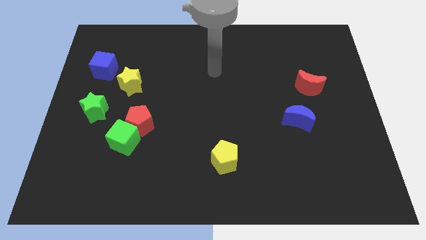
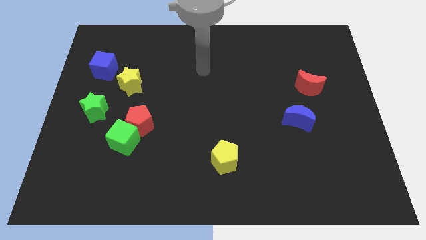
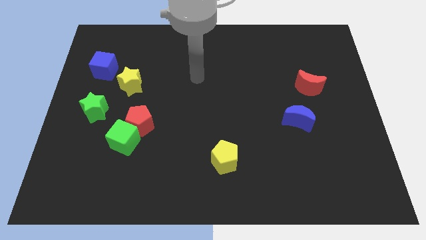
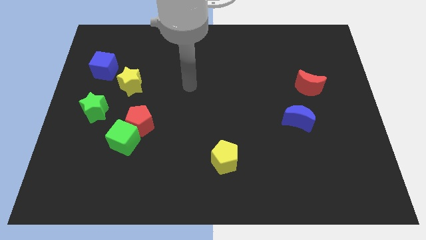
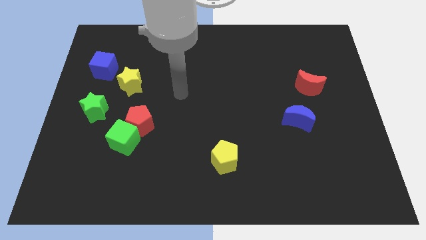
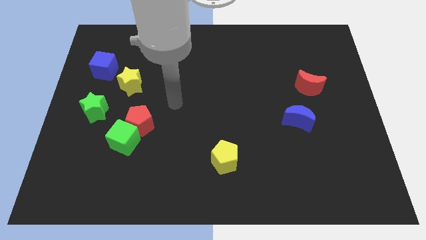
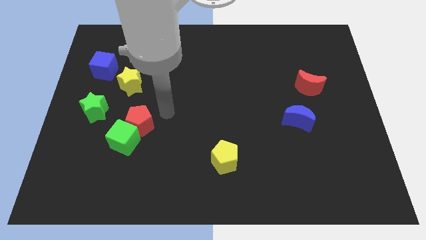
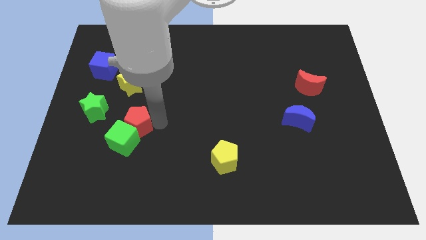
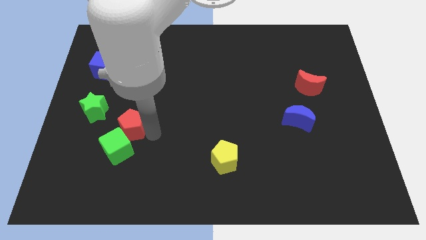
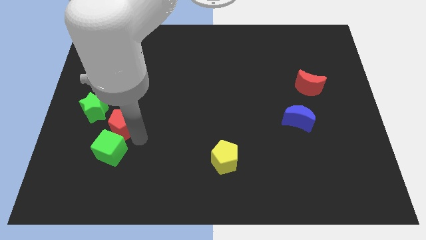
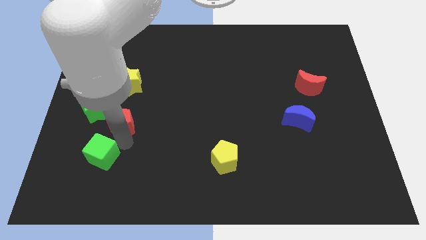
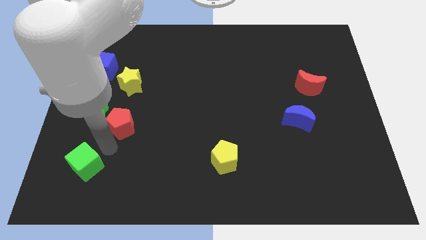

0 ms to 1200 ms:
pull the red pentagon apart from the green cube

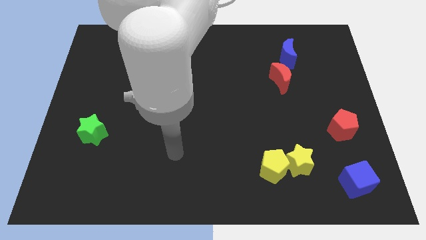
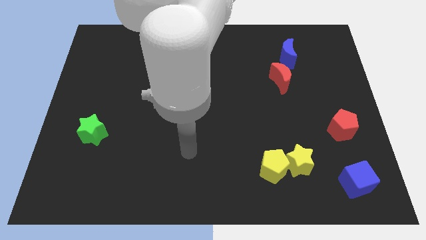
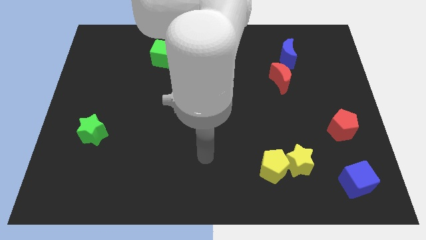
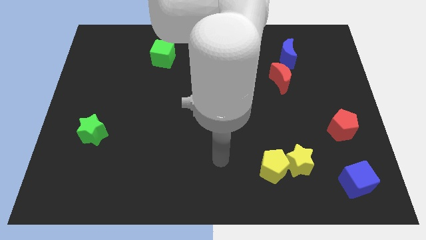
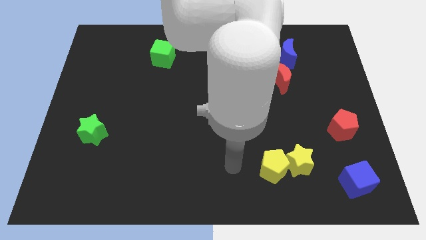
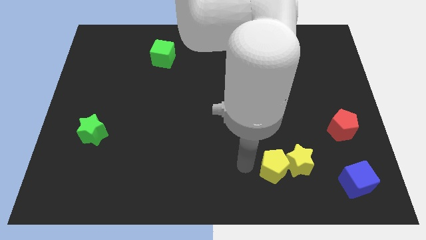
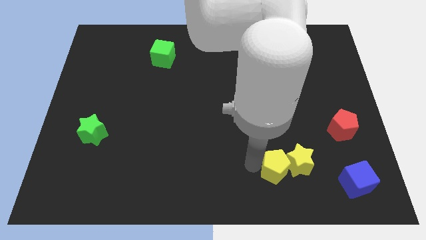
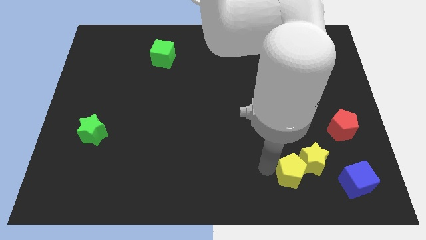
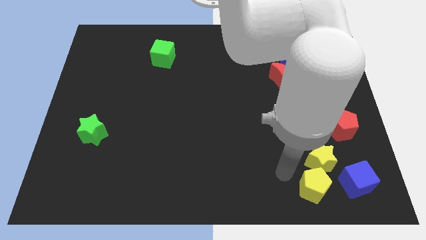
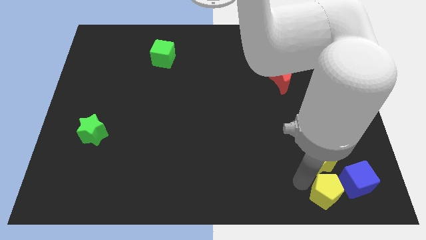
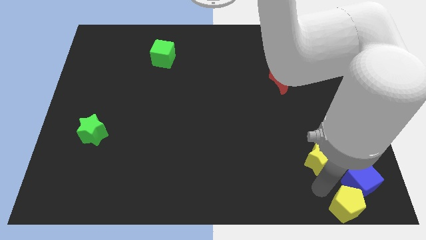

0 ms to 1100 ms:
move the yellow star away from the yellow pentagon

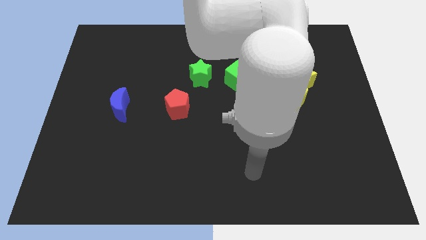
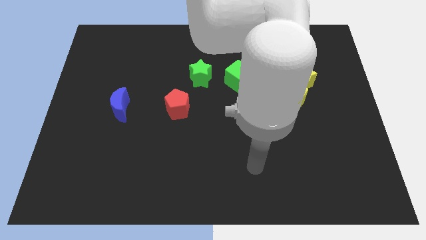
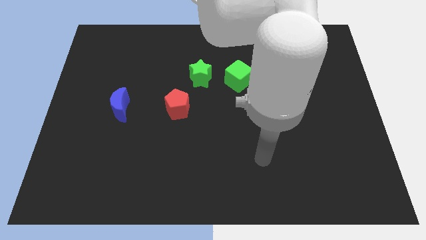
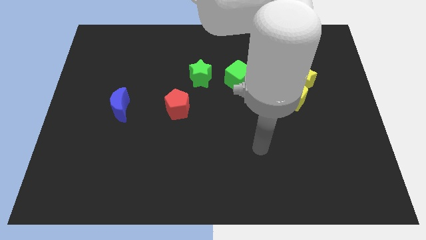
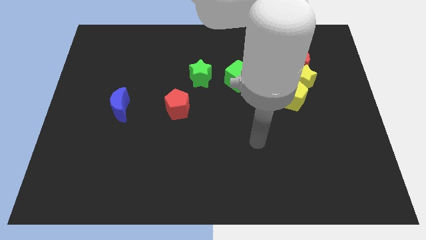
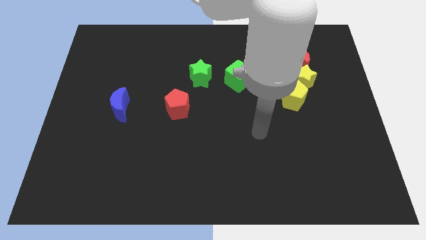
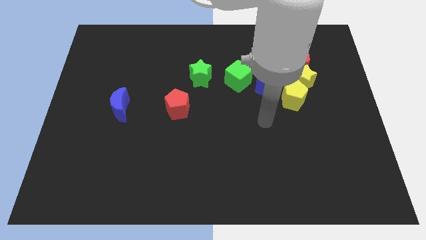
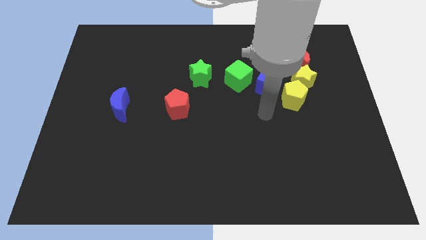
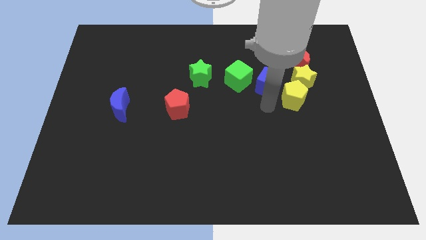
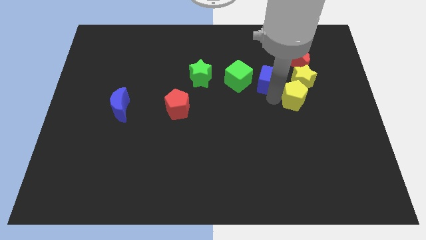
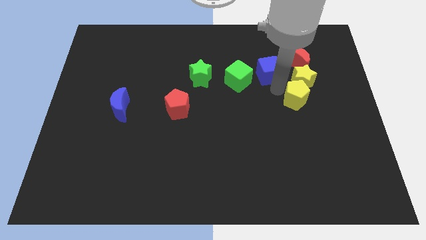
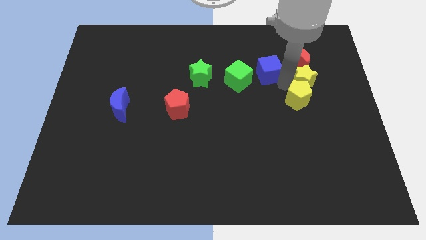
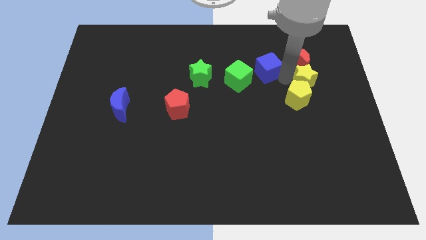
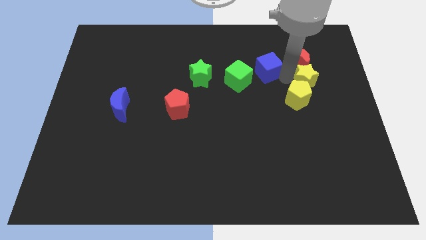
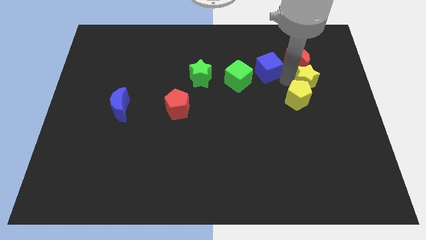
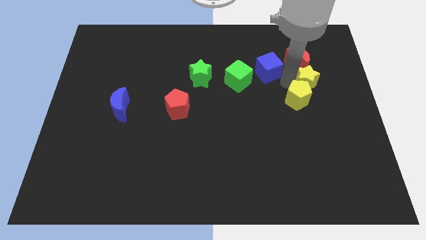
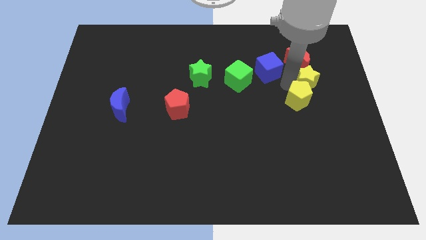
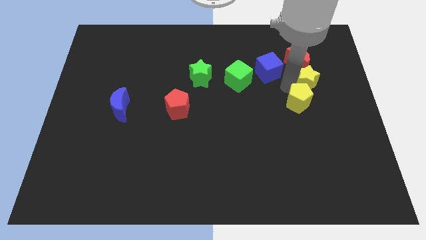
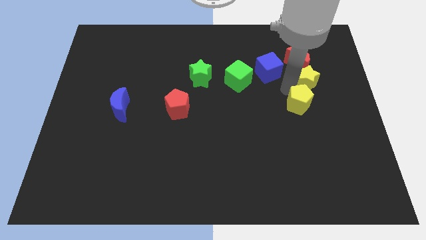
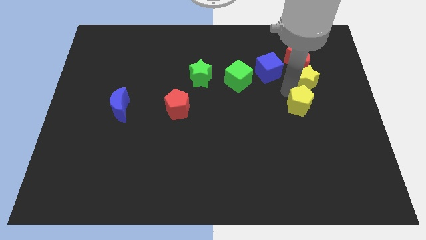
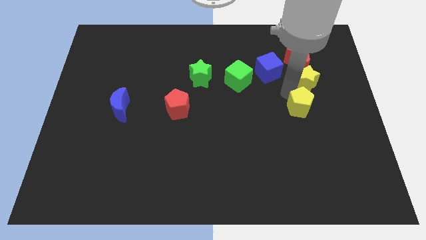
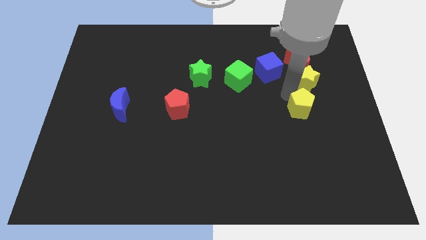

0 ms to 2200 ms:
separate the yellow pentagon from the yellow star and blue cube

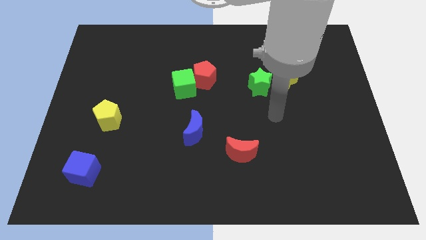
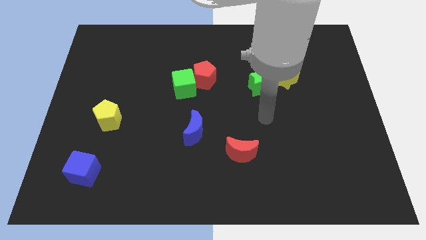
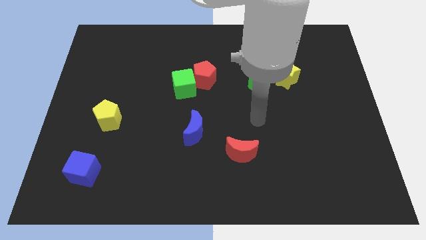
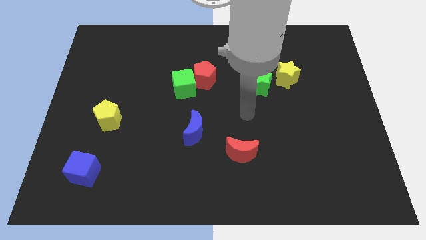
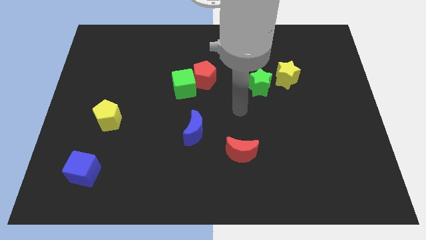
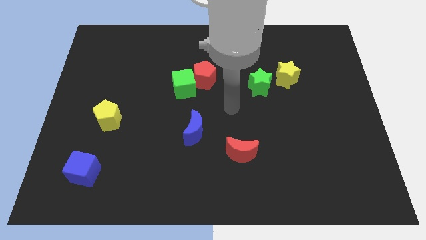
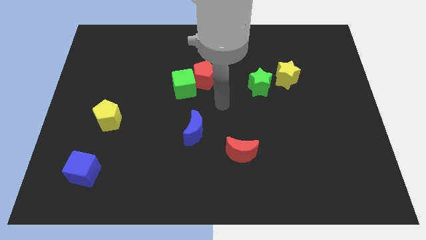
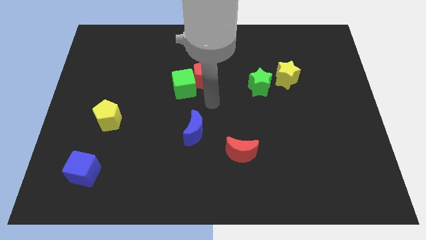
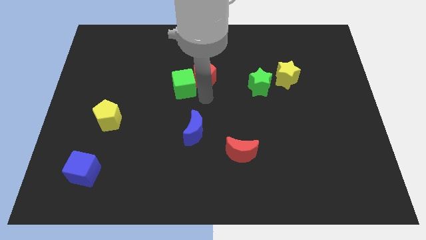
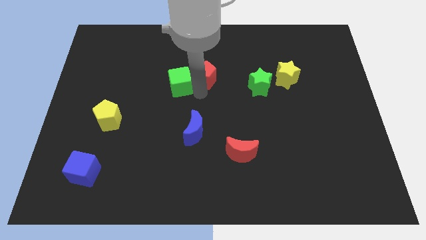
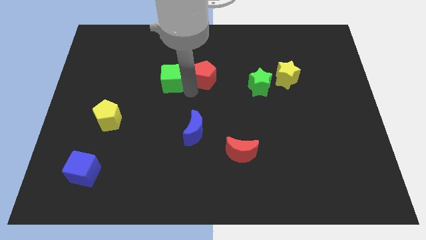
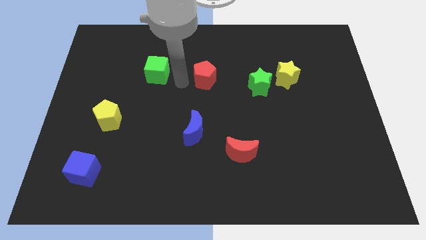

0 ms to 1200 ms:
move the red pentagon away from the green cube

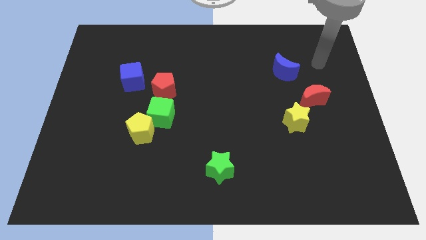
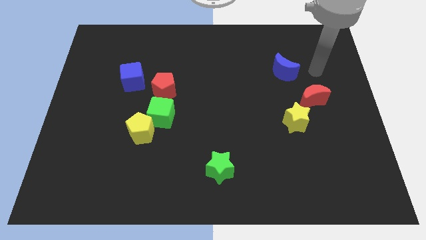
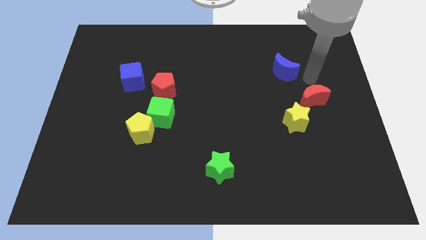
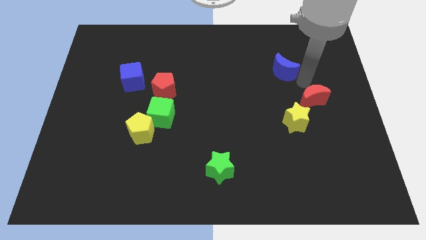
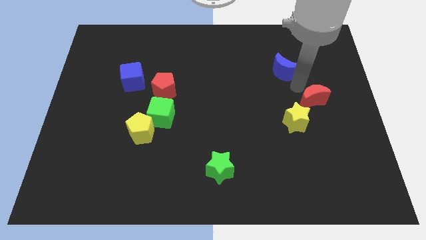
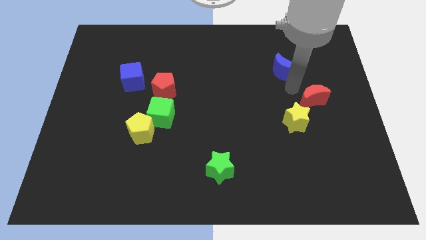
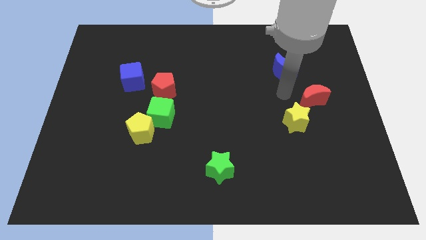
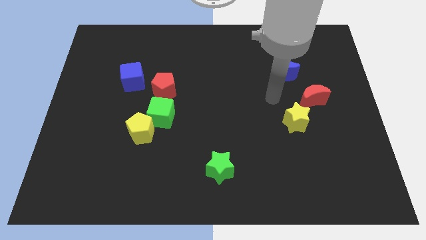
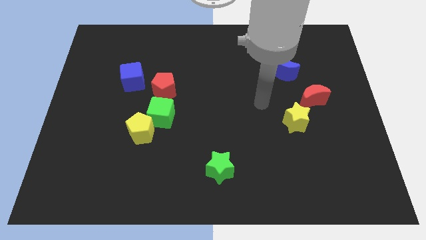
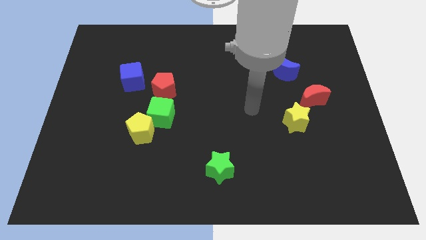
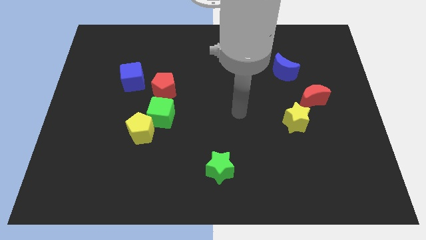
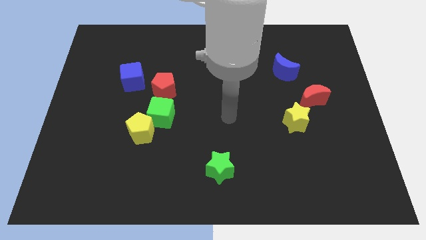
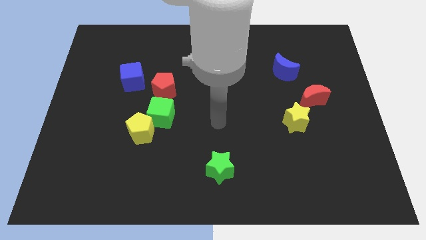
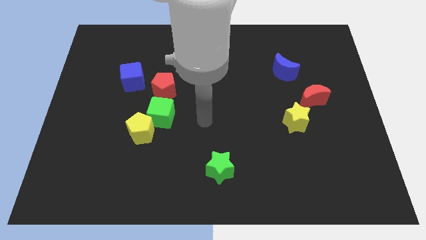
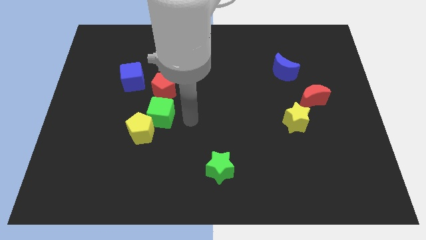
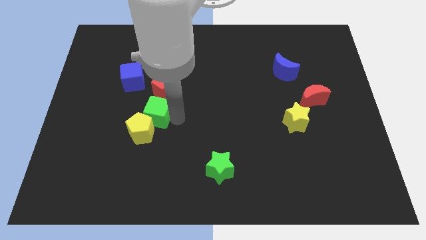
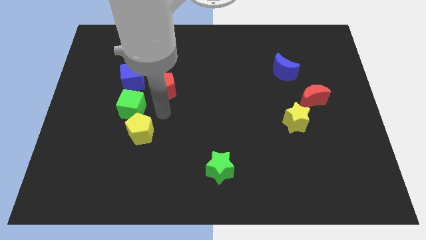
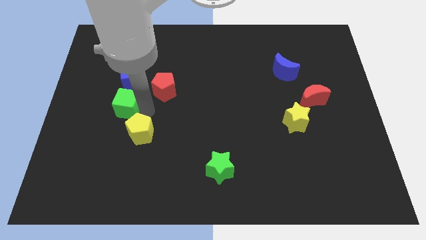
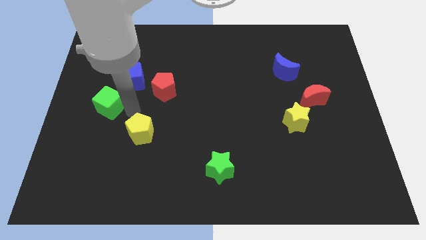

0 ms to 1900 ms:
separate the yellow pentagon from the green cube

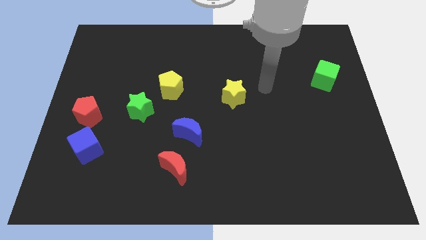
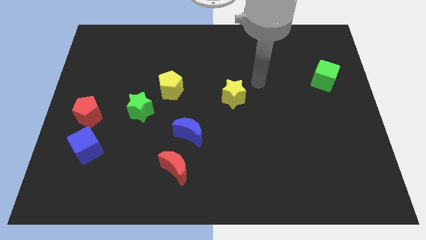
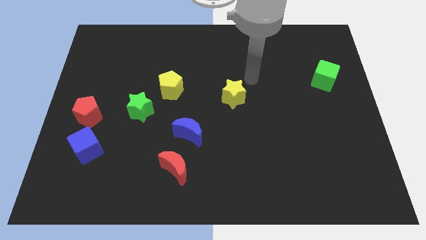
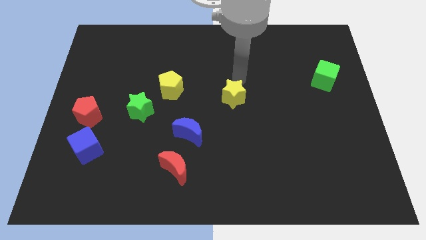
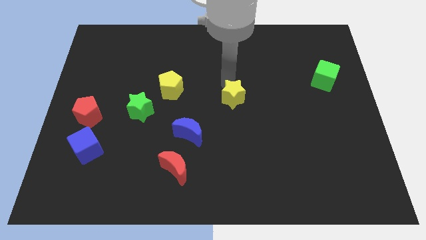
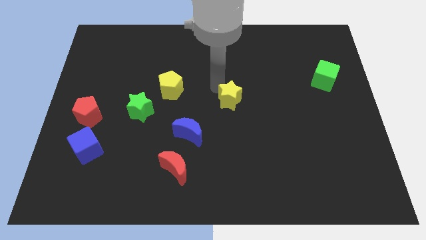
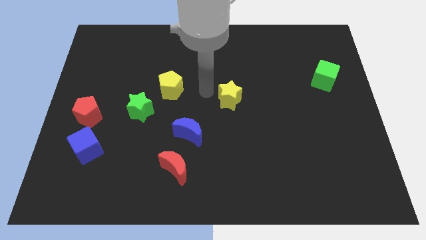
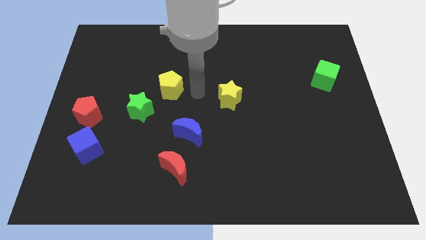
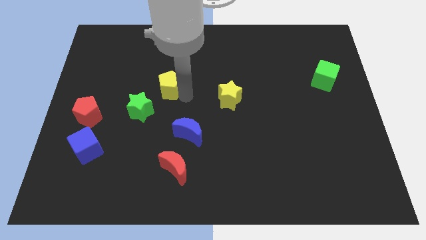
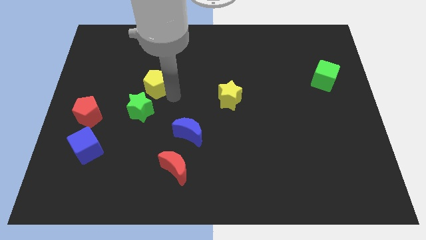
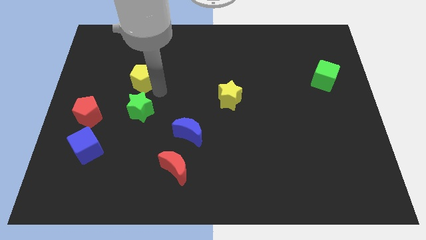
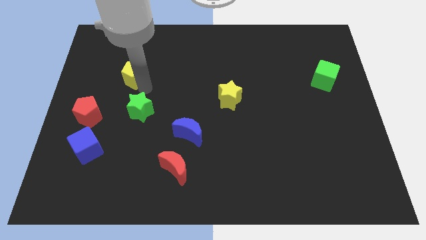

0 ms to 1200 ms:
move the green star away from the yellow pentagon

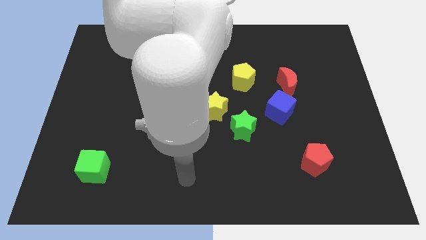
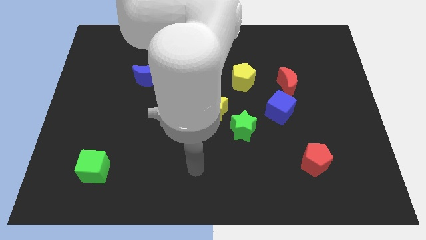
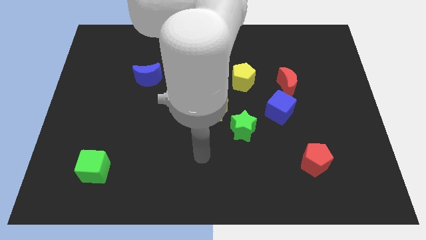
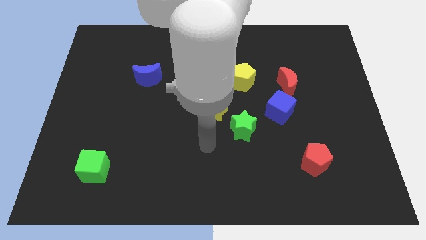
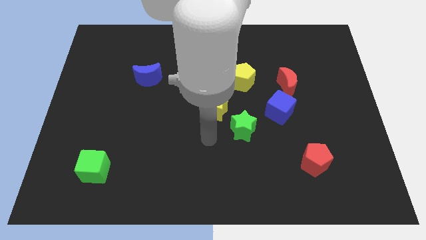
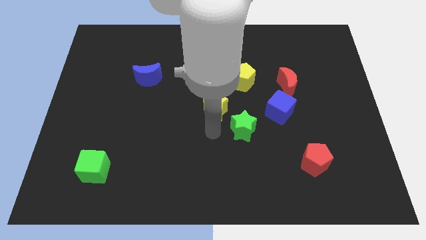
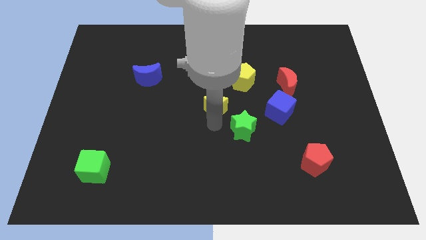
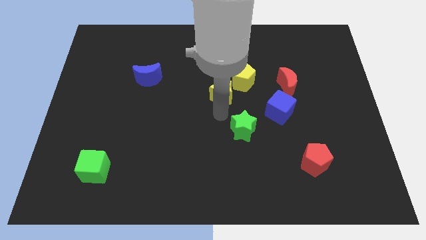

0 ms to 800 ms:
move the green star away from the yellow star
